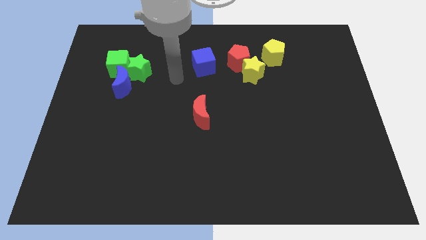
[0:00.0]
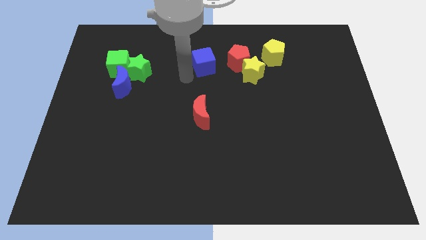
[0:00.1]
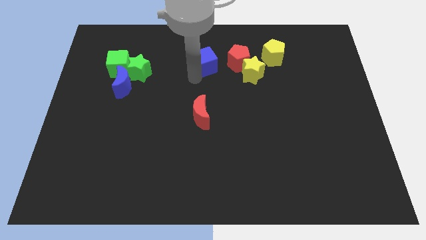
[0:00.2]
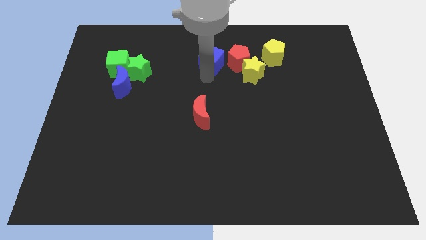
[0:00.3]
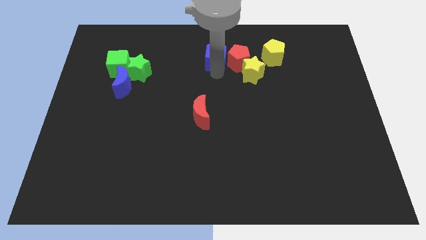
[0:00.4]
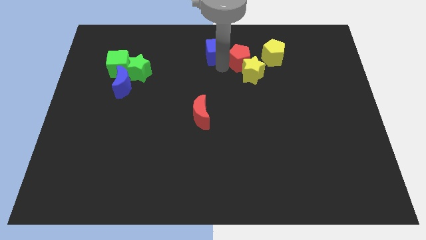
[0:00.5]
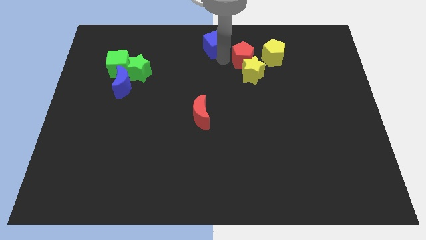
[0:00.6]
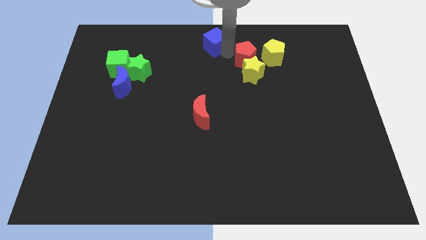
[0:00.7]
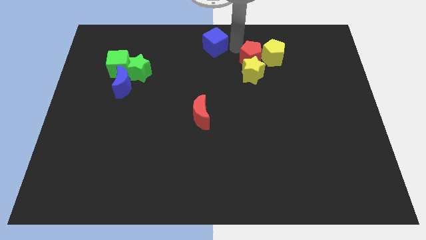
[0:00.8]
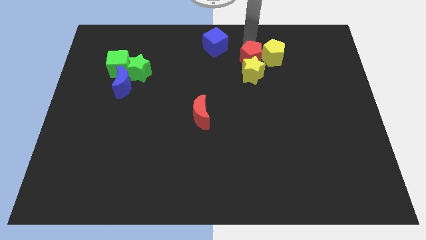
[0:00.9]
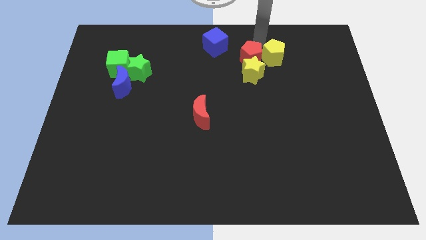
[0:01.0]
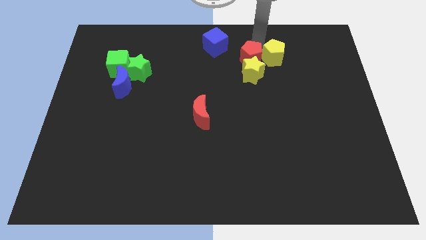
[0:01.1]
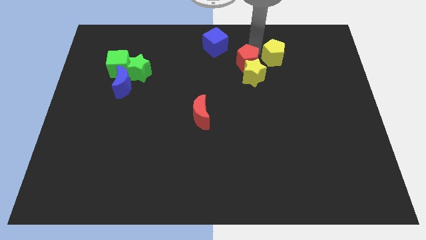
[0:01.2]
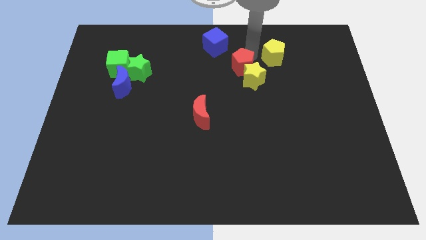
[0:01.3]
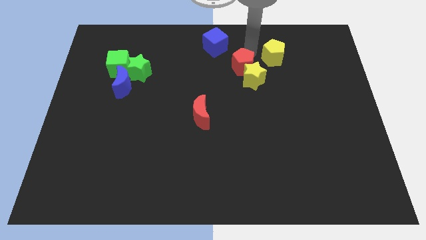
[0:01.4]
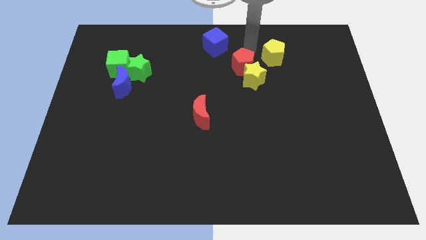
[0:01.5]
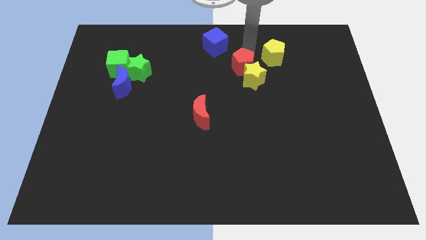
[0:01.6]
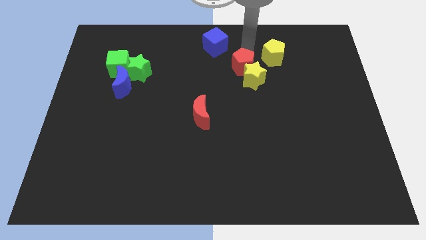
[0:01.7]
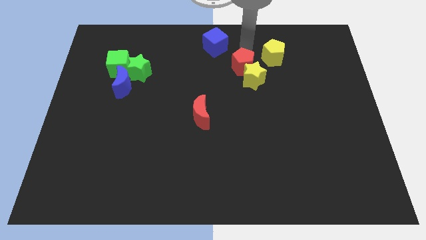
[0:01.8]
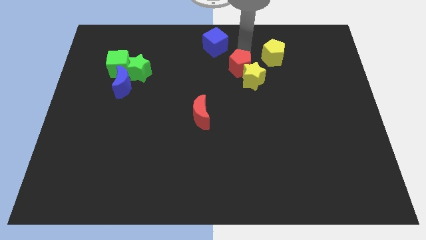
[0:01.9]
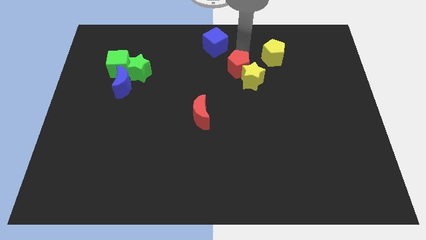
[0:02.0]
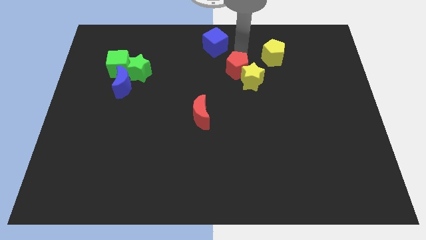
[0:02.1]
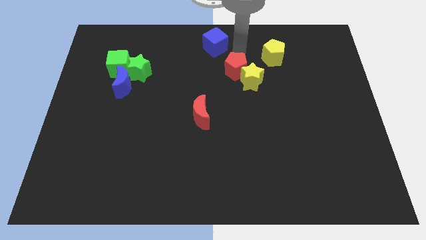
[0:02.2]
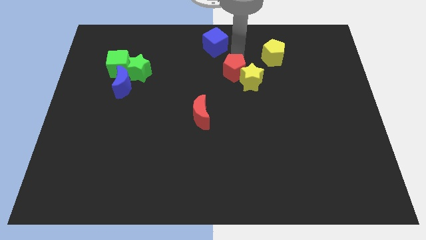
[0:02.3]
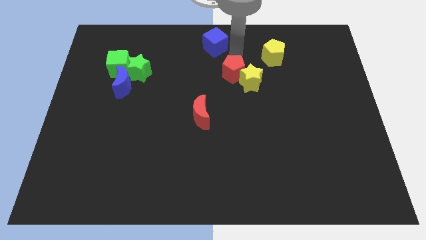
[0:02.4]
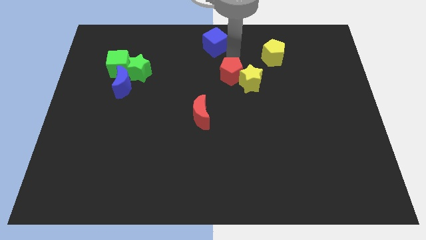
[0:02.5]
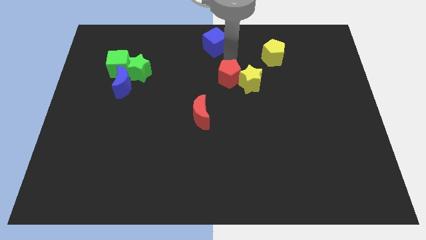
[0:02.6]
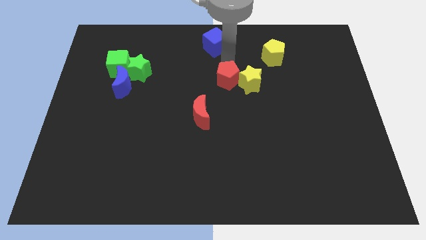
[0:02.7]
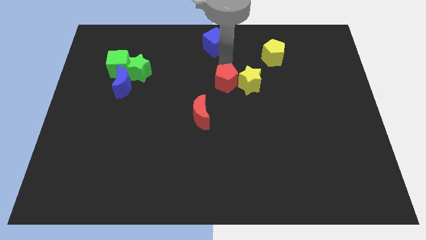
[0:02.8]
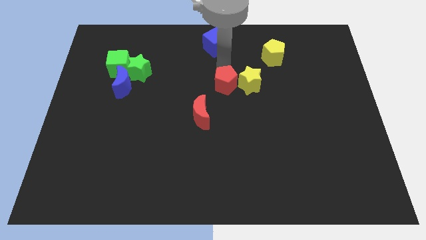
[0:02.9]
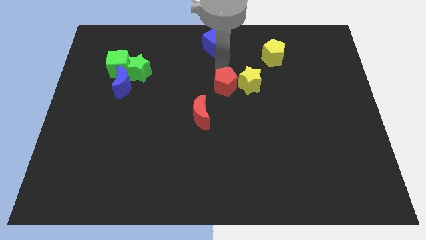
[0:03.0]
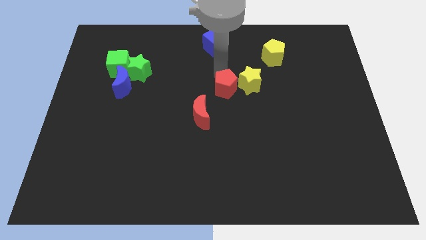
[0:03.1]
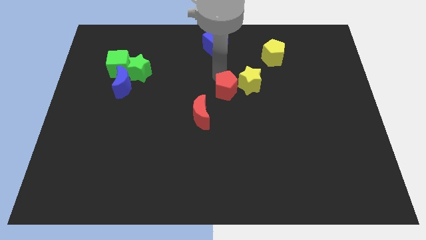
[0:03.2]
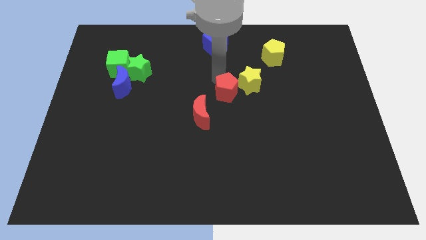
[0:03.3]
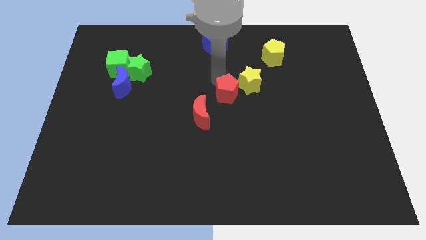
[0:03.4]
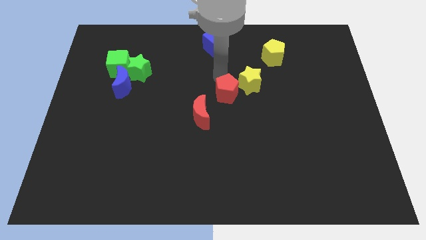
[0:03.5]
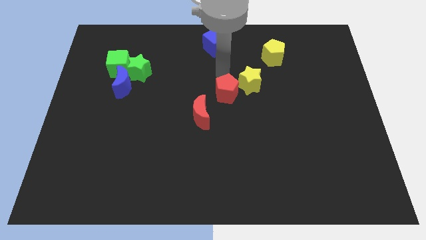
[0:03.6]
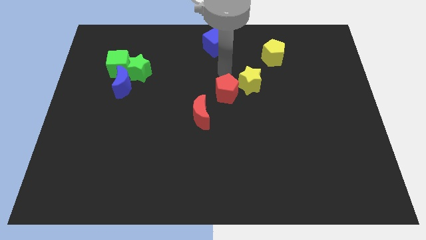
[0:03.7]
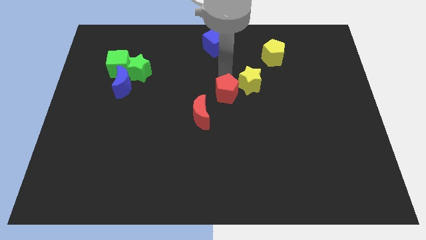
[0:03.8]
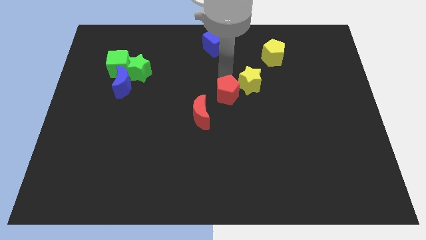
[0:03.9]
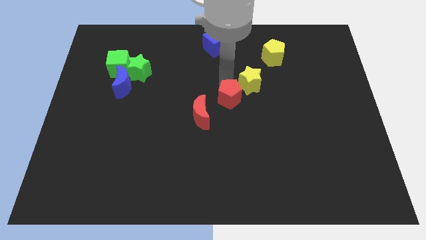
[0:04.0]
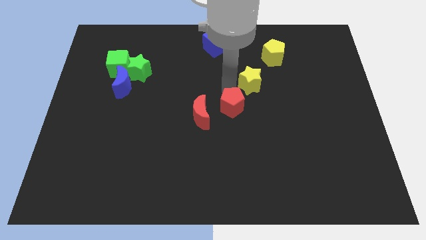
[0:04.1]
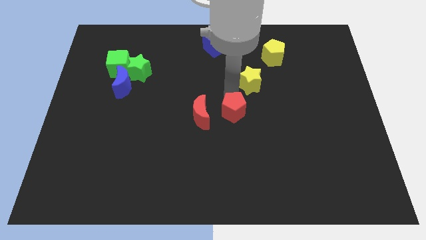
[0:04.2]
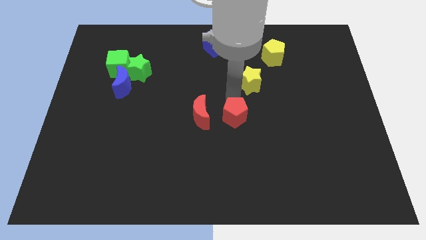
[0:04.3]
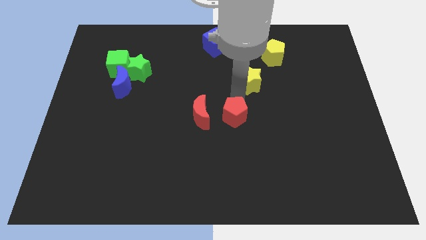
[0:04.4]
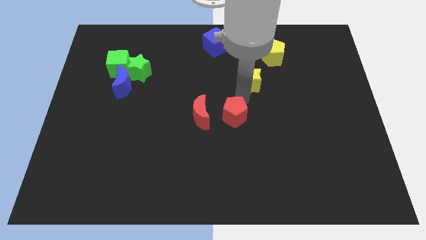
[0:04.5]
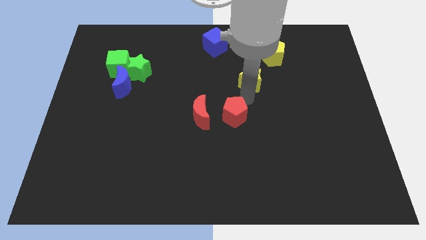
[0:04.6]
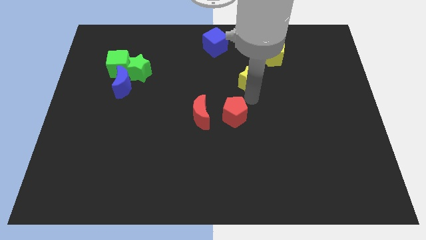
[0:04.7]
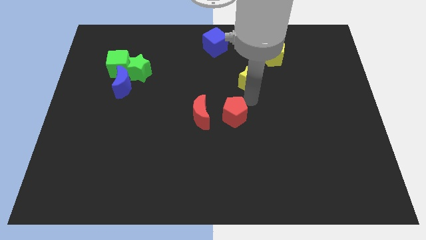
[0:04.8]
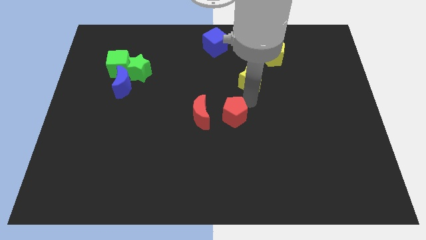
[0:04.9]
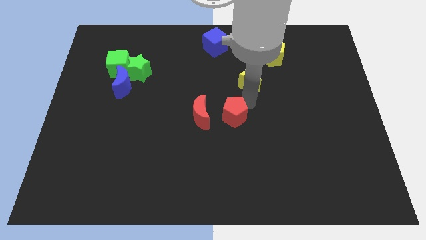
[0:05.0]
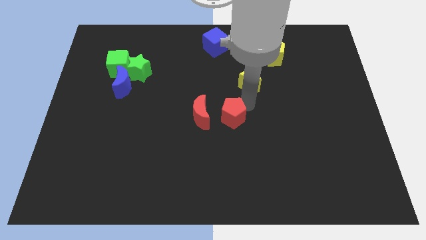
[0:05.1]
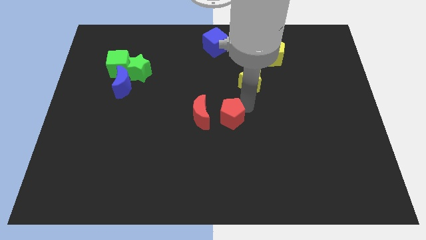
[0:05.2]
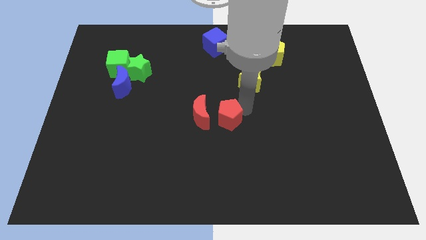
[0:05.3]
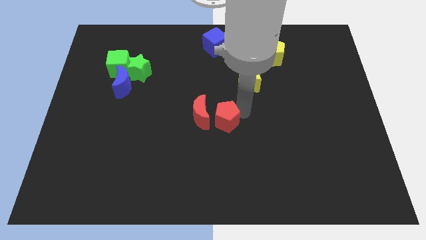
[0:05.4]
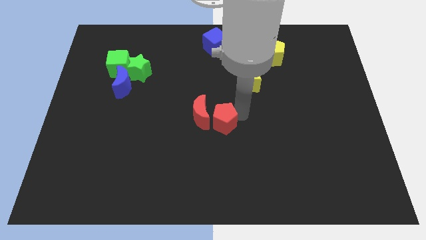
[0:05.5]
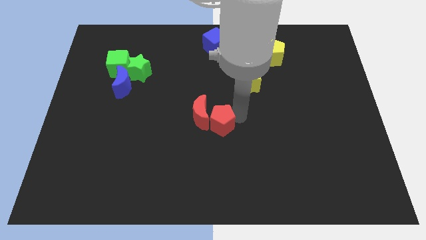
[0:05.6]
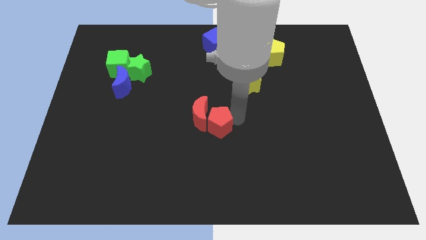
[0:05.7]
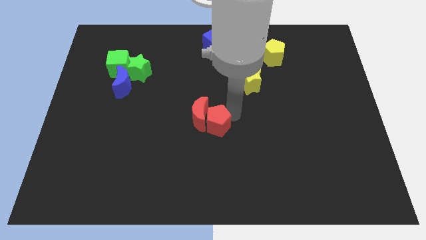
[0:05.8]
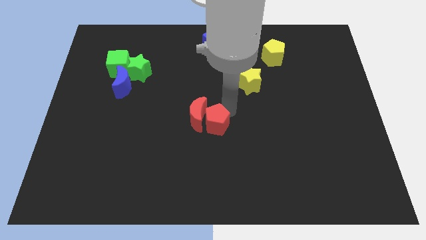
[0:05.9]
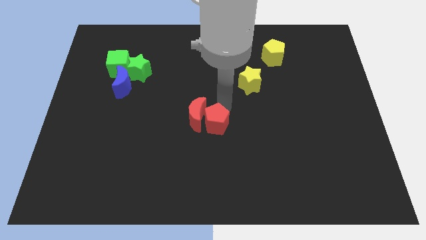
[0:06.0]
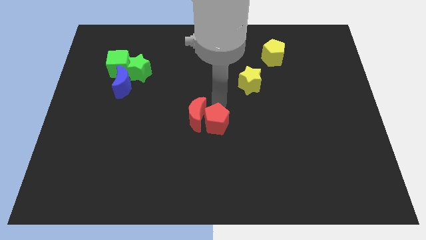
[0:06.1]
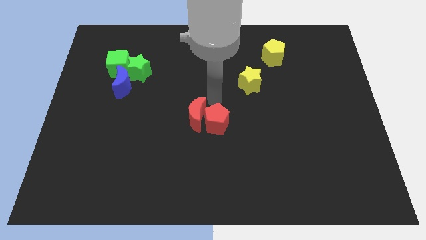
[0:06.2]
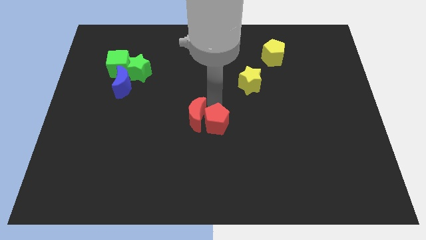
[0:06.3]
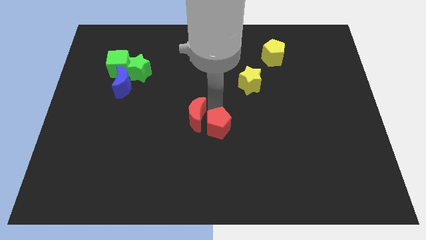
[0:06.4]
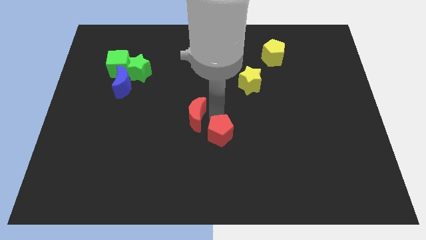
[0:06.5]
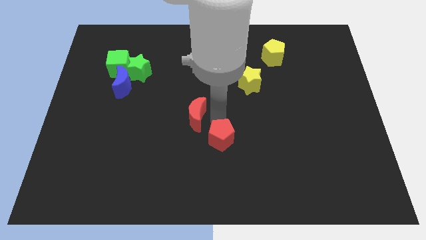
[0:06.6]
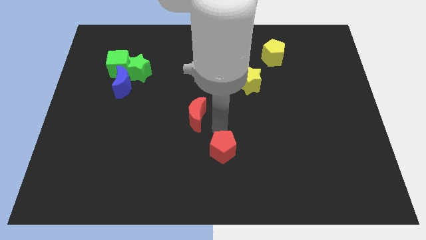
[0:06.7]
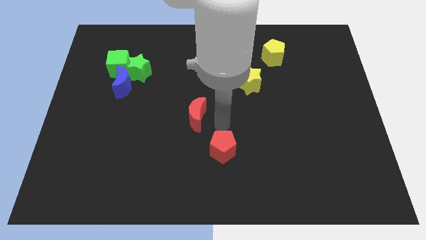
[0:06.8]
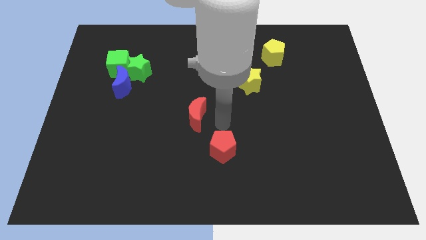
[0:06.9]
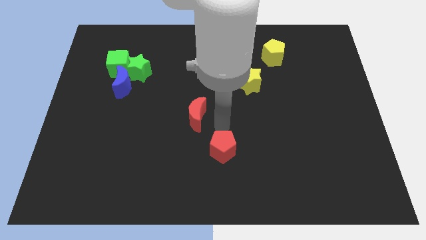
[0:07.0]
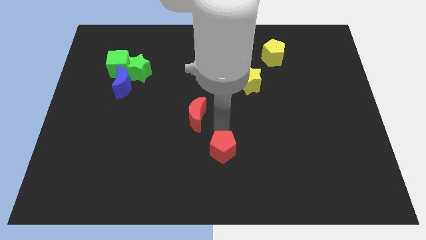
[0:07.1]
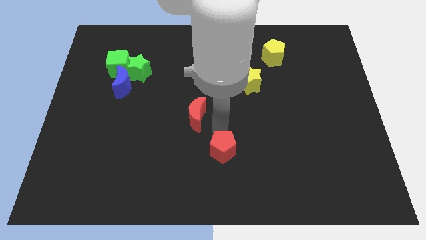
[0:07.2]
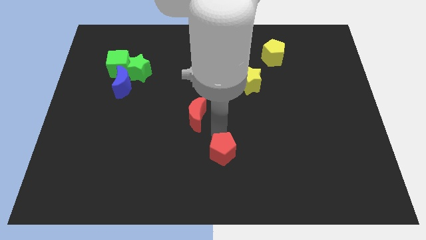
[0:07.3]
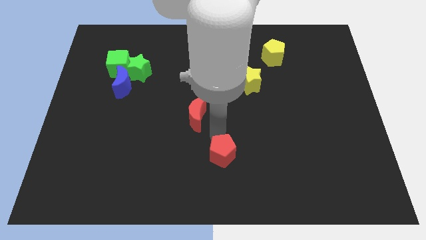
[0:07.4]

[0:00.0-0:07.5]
slide the red pentagon to the bottom

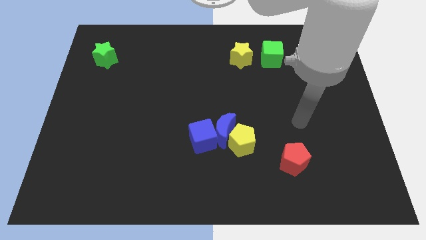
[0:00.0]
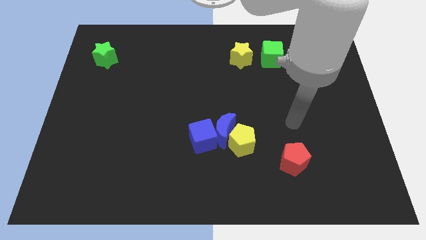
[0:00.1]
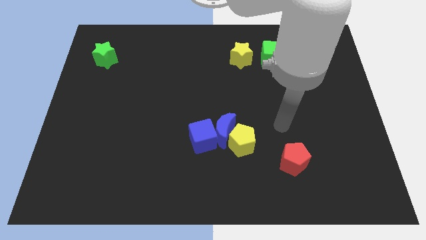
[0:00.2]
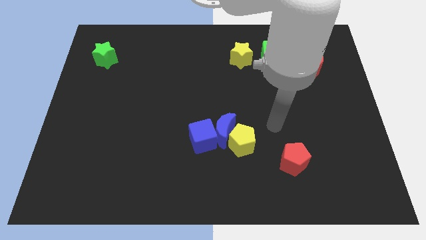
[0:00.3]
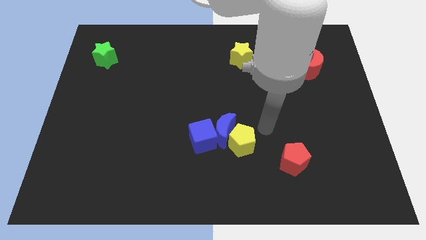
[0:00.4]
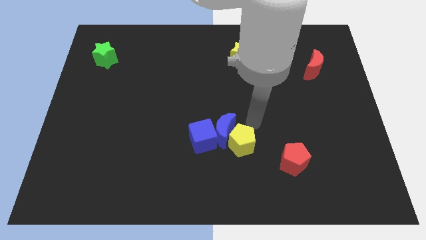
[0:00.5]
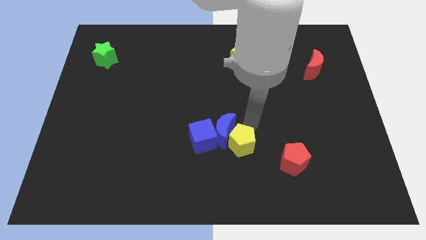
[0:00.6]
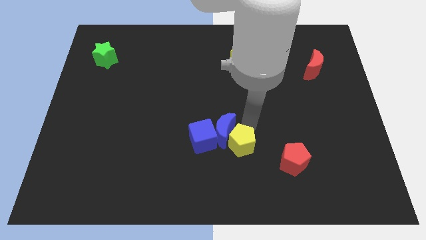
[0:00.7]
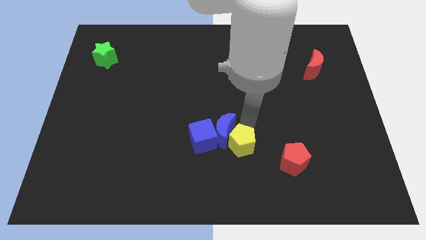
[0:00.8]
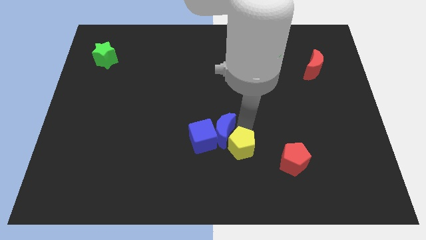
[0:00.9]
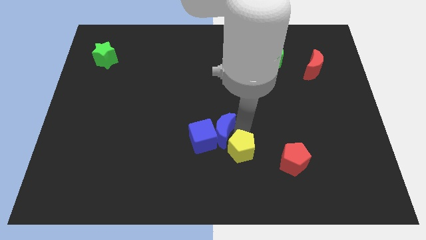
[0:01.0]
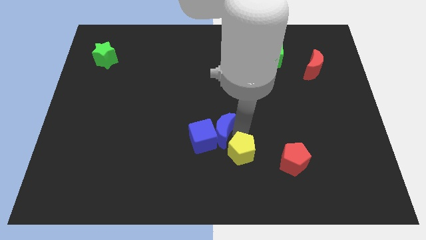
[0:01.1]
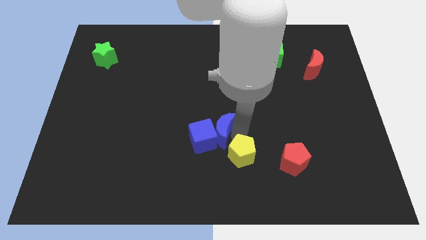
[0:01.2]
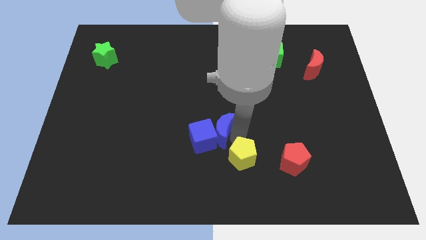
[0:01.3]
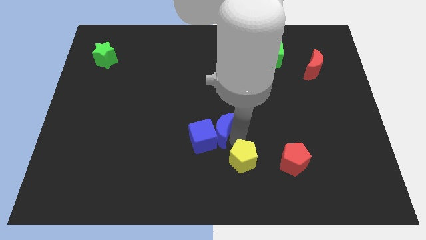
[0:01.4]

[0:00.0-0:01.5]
push the yellow pentagon to the bottom side
